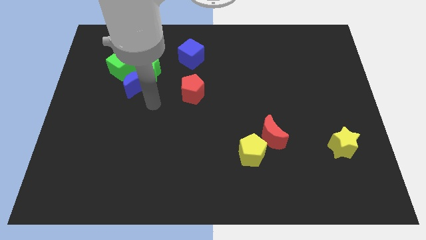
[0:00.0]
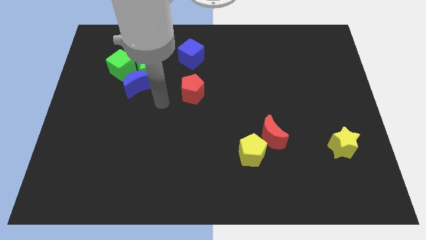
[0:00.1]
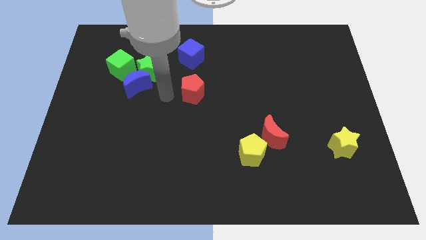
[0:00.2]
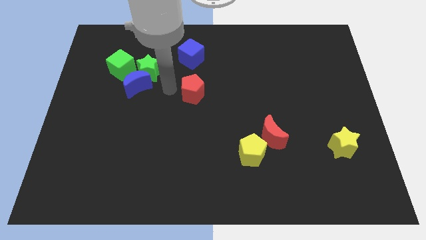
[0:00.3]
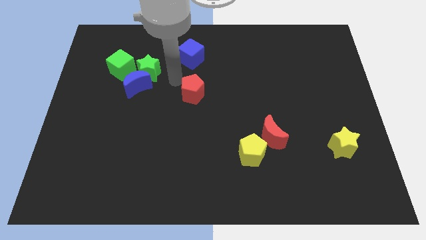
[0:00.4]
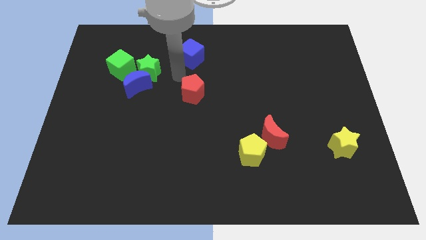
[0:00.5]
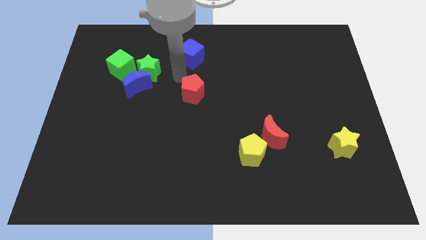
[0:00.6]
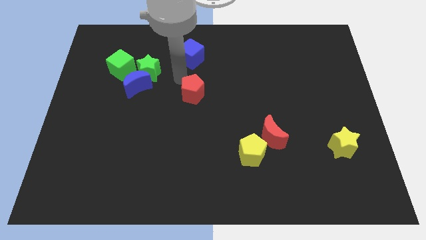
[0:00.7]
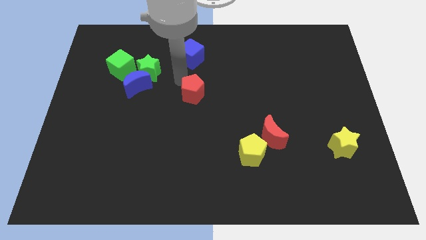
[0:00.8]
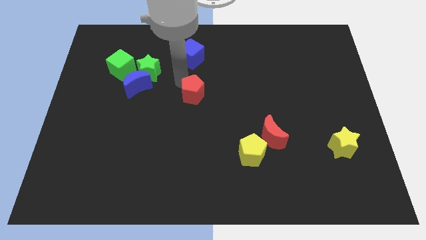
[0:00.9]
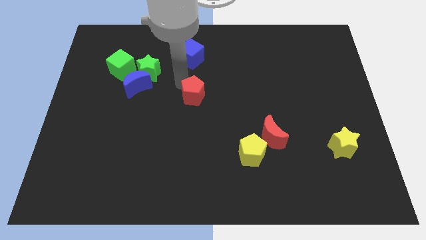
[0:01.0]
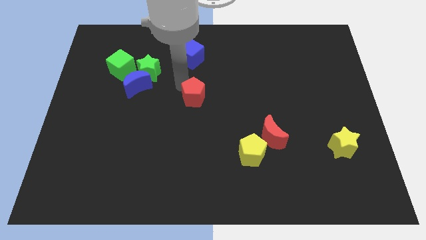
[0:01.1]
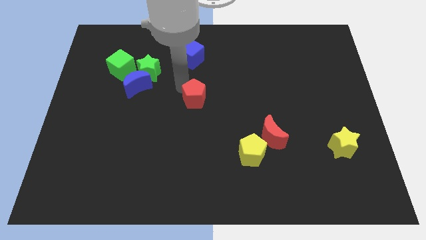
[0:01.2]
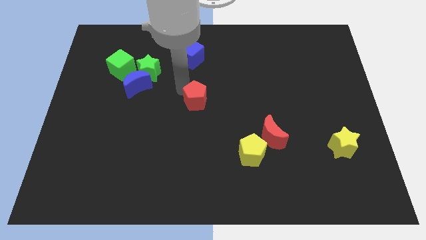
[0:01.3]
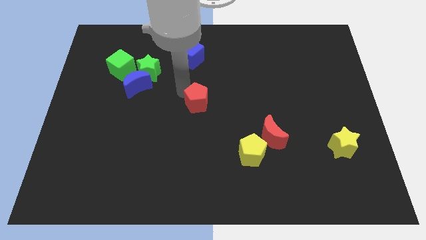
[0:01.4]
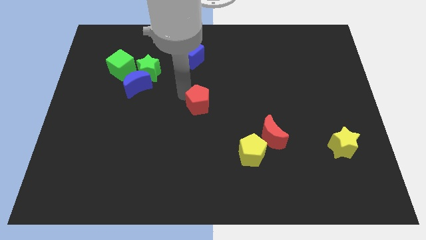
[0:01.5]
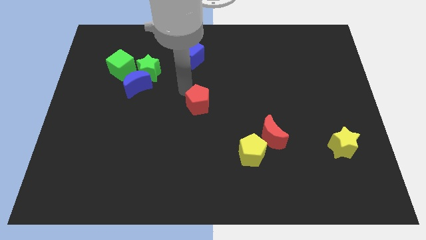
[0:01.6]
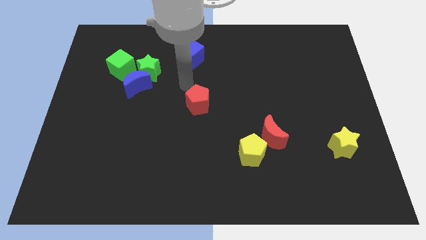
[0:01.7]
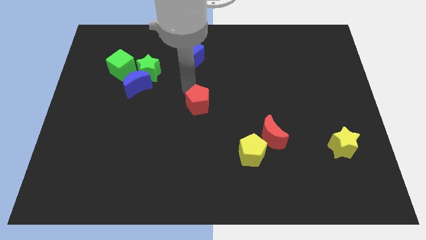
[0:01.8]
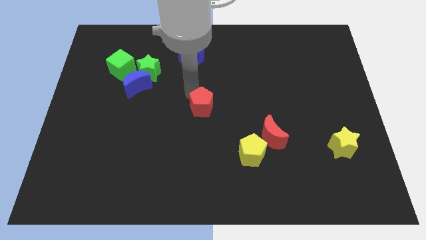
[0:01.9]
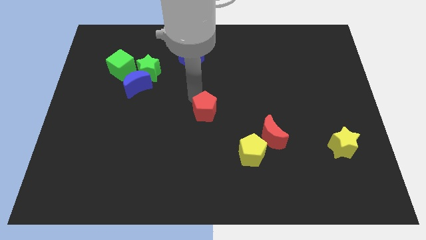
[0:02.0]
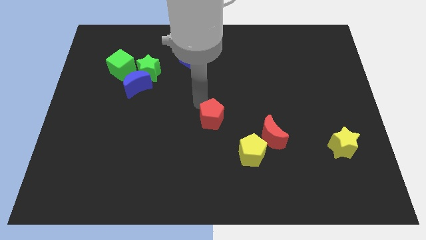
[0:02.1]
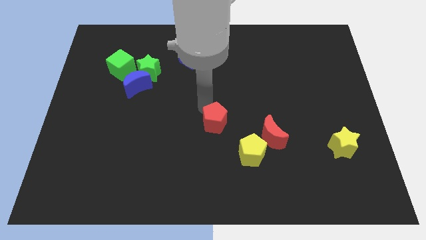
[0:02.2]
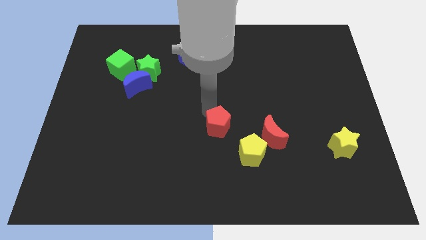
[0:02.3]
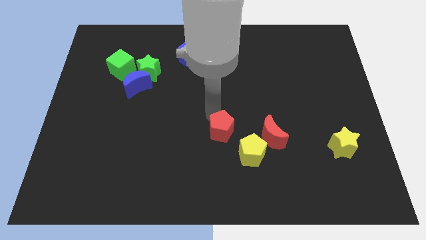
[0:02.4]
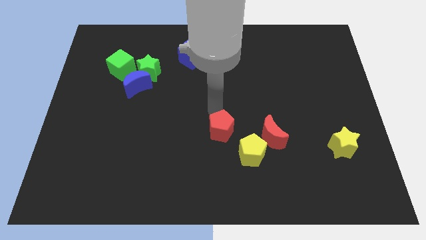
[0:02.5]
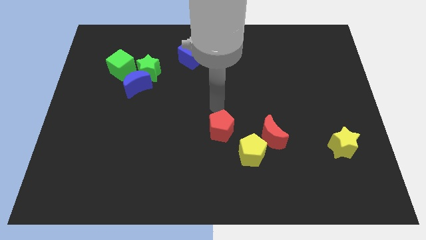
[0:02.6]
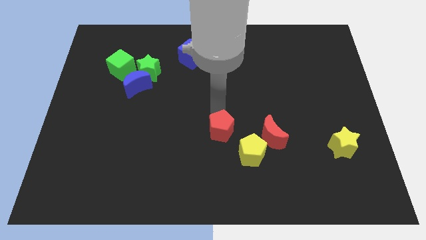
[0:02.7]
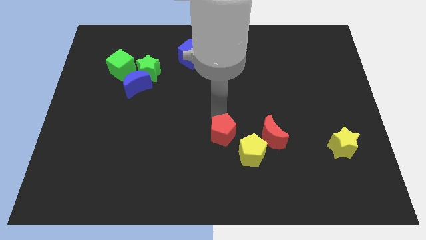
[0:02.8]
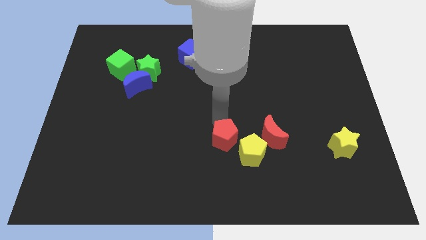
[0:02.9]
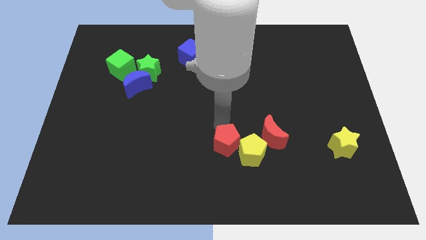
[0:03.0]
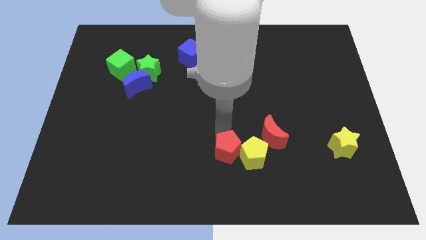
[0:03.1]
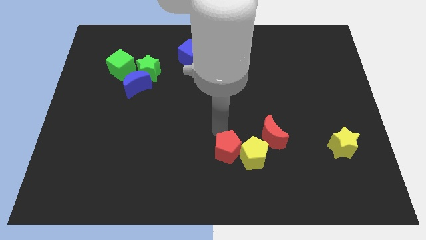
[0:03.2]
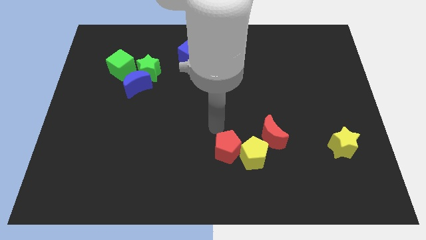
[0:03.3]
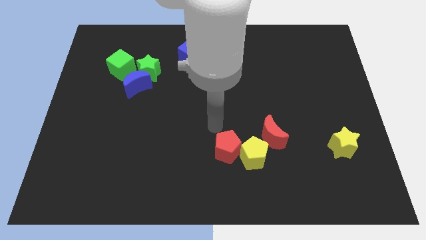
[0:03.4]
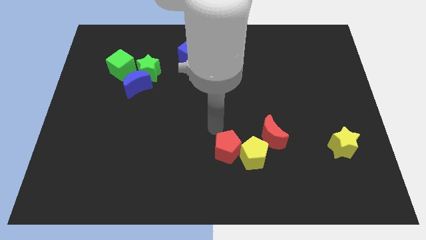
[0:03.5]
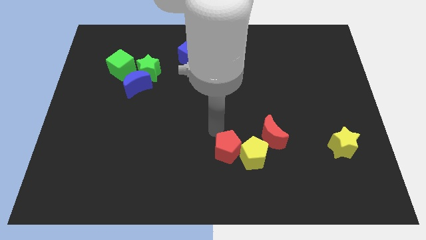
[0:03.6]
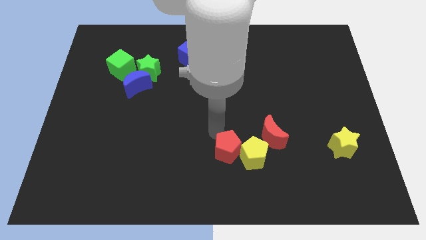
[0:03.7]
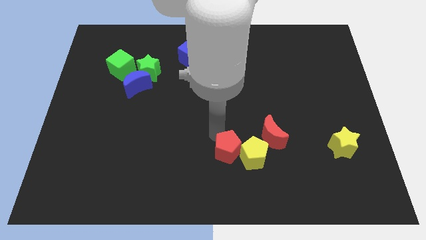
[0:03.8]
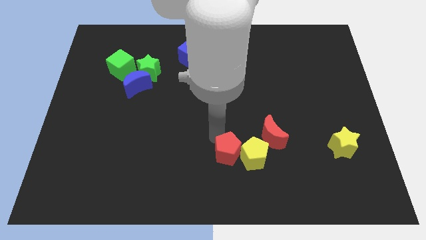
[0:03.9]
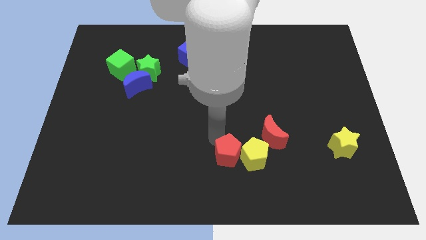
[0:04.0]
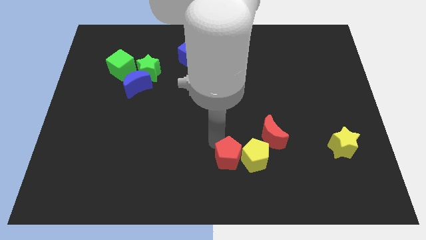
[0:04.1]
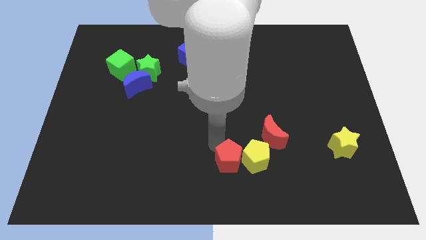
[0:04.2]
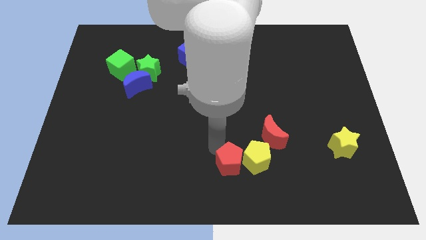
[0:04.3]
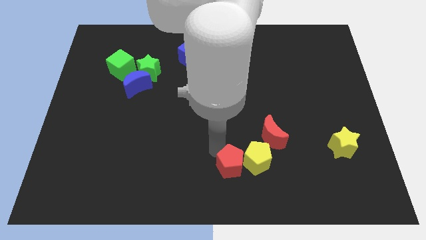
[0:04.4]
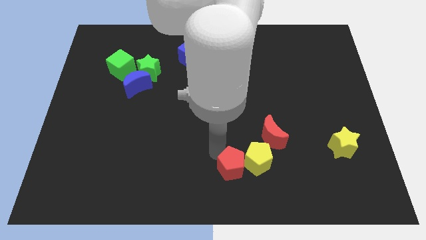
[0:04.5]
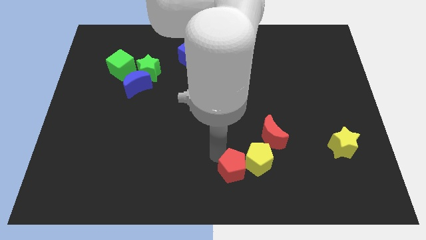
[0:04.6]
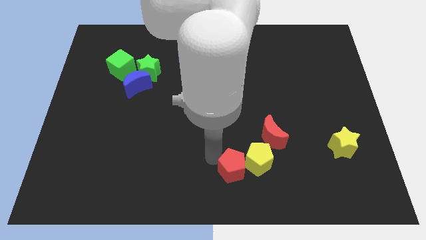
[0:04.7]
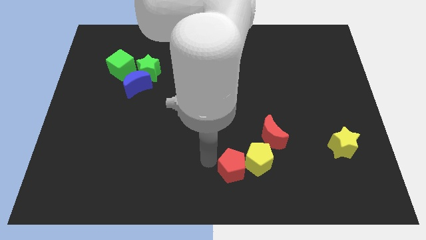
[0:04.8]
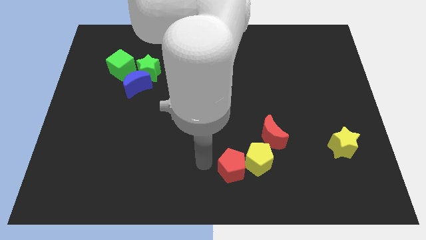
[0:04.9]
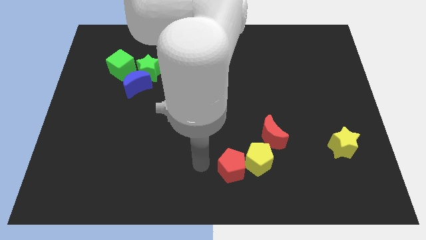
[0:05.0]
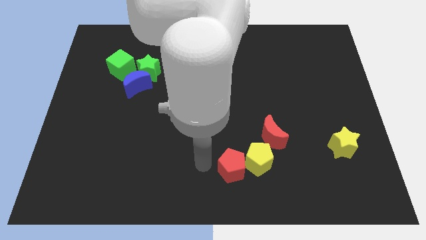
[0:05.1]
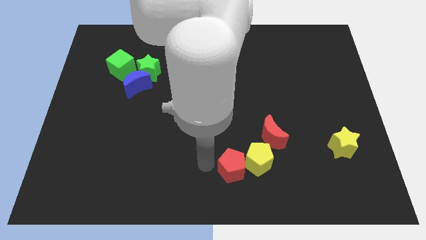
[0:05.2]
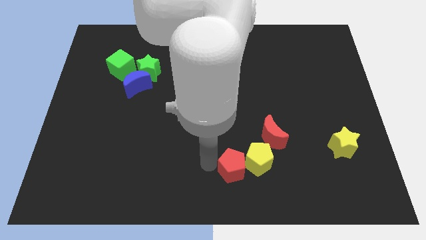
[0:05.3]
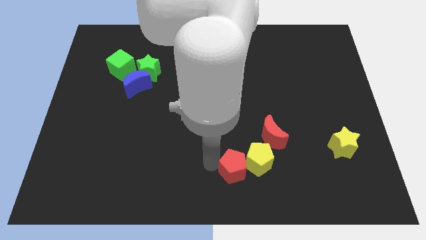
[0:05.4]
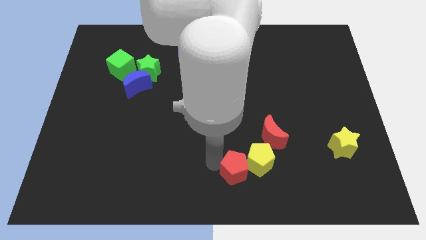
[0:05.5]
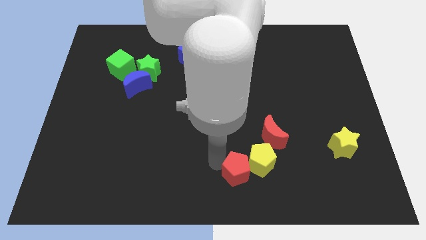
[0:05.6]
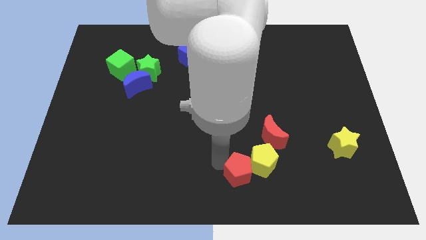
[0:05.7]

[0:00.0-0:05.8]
slide the red pentagon down and to the right

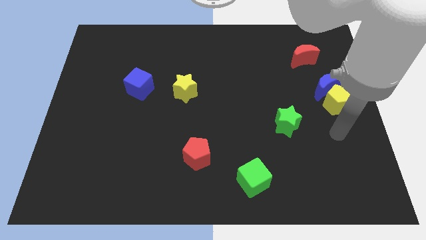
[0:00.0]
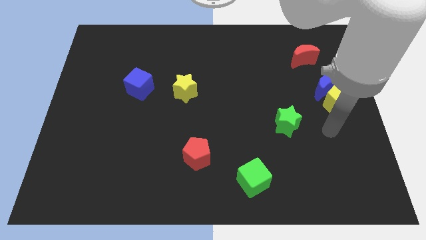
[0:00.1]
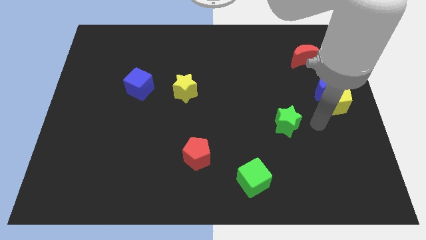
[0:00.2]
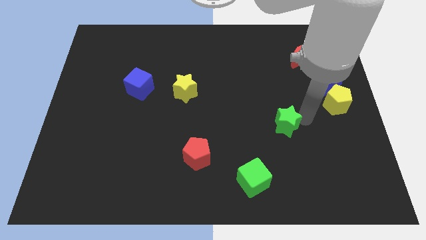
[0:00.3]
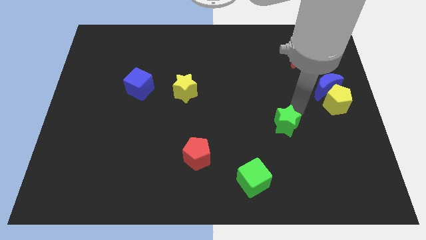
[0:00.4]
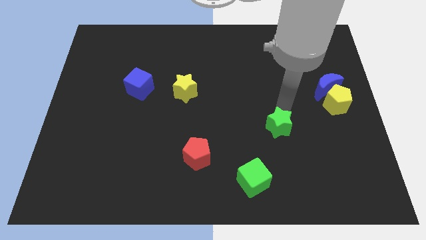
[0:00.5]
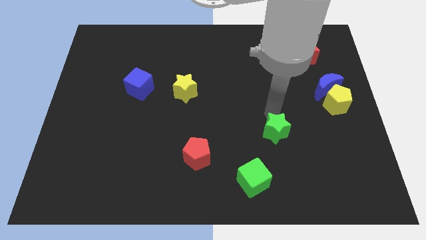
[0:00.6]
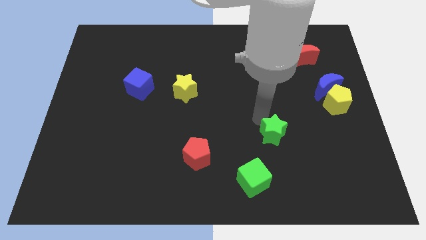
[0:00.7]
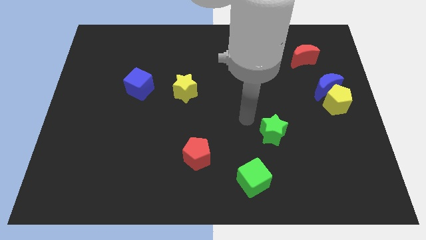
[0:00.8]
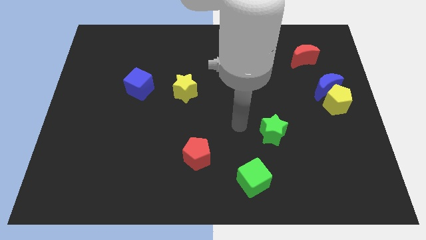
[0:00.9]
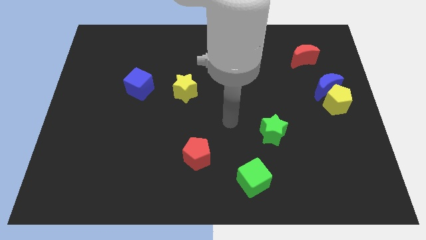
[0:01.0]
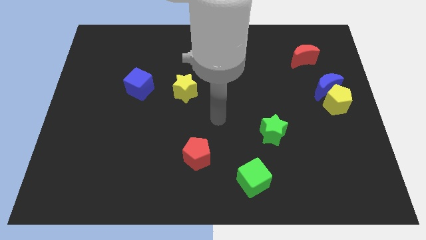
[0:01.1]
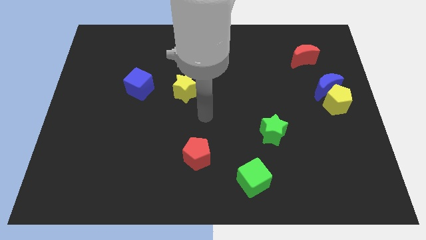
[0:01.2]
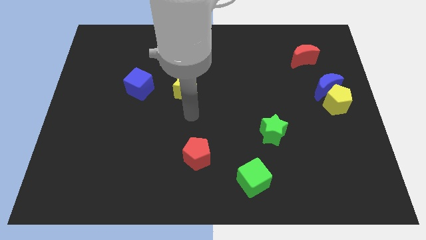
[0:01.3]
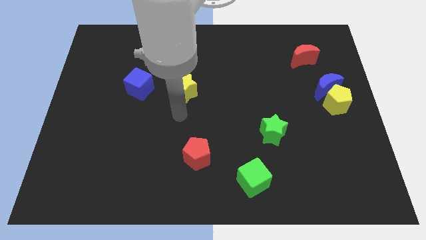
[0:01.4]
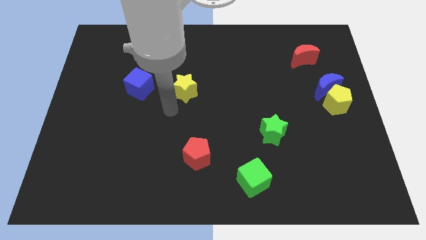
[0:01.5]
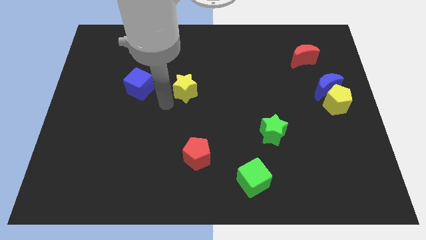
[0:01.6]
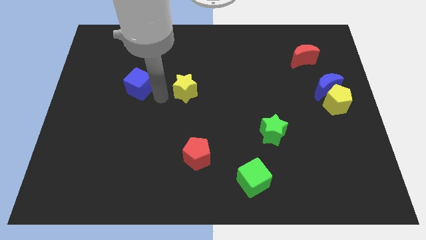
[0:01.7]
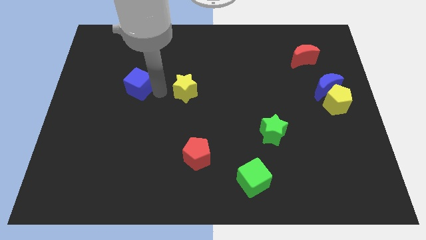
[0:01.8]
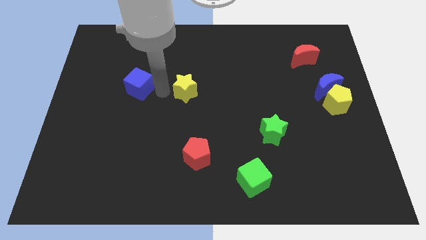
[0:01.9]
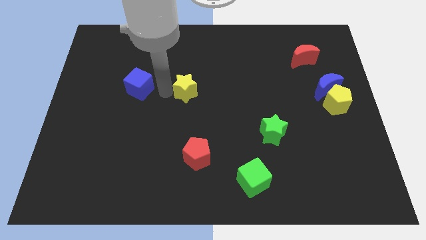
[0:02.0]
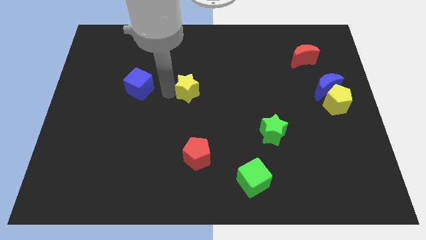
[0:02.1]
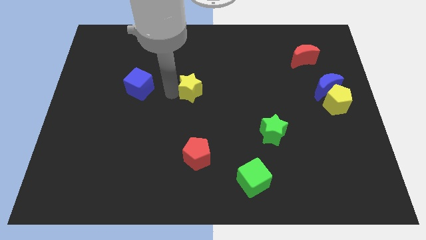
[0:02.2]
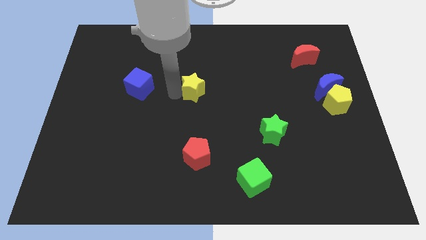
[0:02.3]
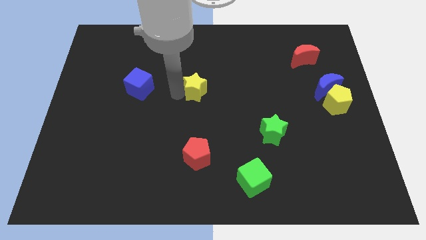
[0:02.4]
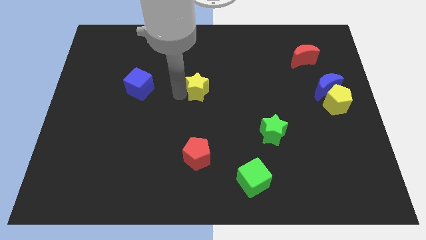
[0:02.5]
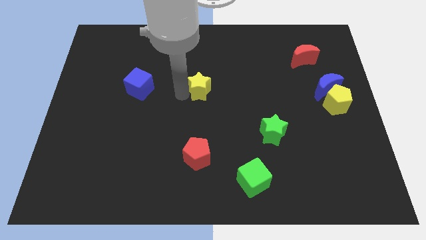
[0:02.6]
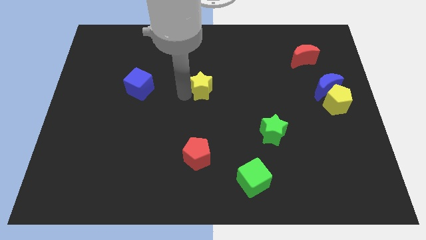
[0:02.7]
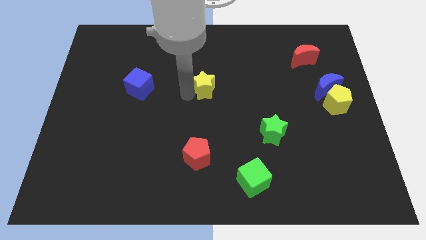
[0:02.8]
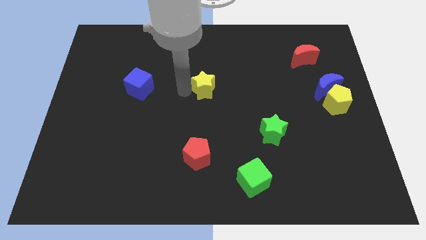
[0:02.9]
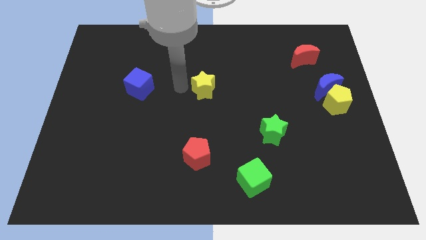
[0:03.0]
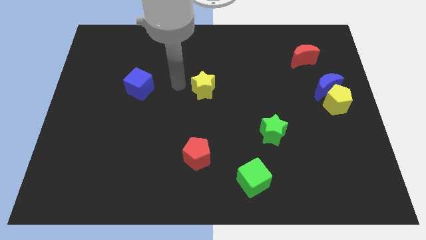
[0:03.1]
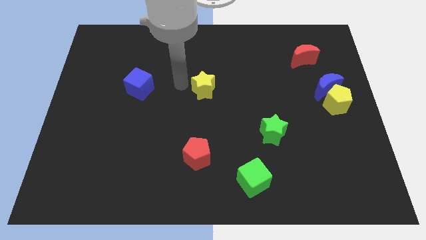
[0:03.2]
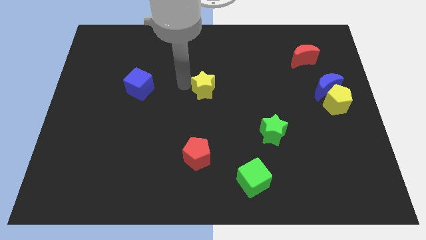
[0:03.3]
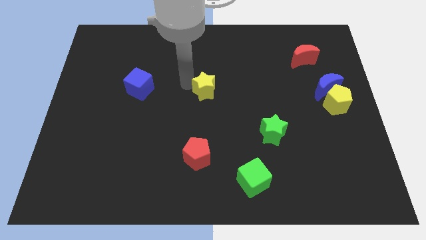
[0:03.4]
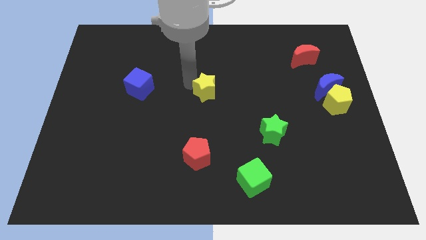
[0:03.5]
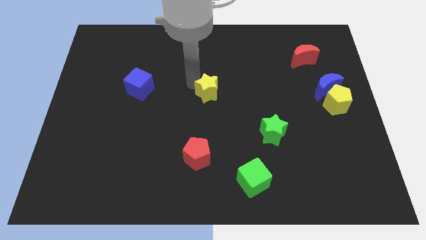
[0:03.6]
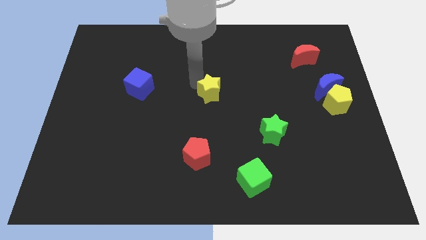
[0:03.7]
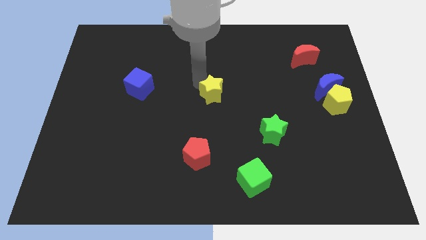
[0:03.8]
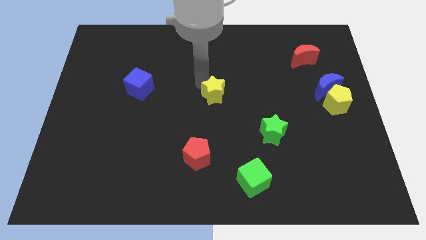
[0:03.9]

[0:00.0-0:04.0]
push the yellow star to the right a little
